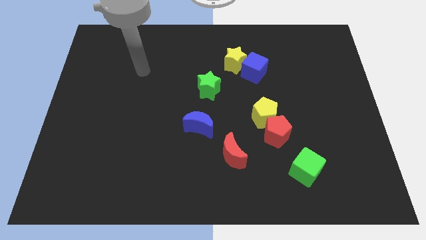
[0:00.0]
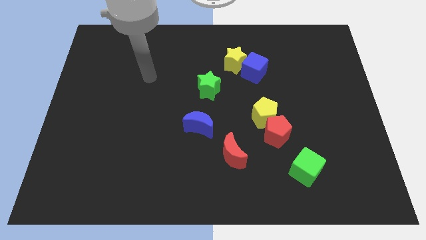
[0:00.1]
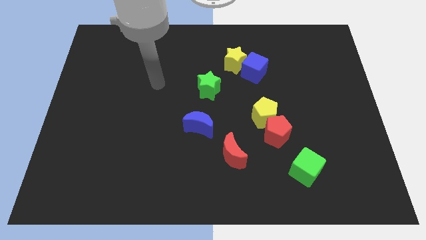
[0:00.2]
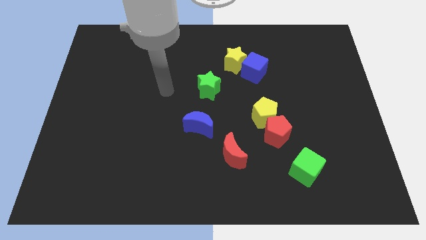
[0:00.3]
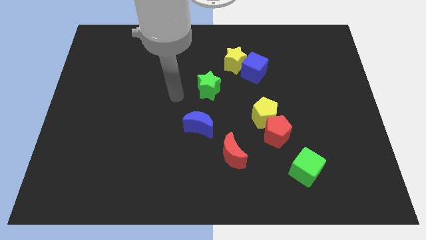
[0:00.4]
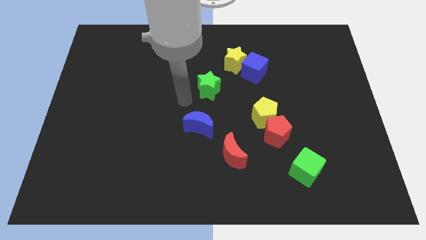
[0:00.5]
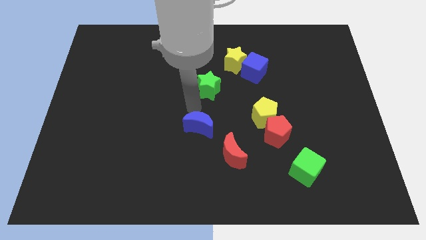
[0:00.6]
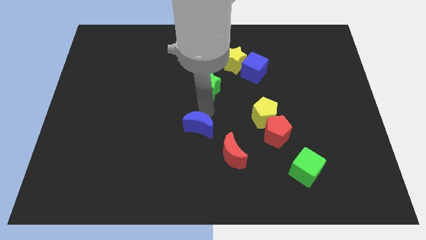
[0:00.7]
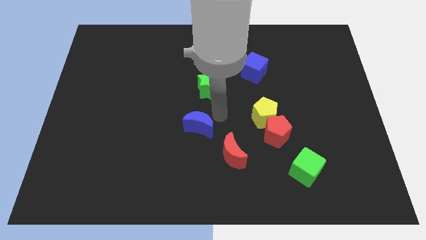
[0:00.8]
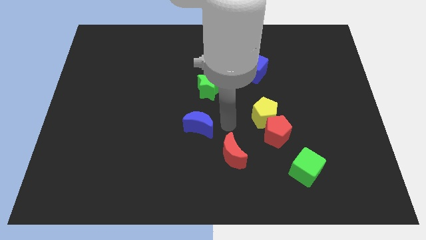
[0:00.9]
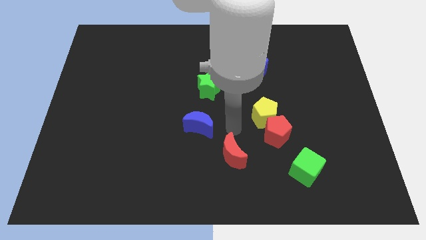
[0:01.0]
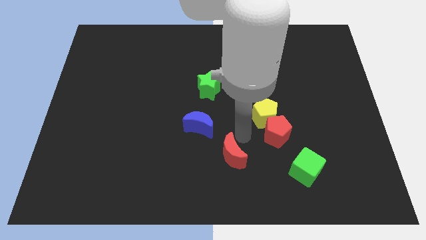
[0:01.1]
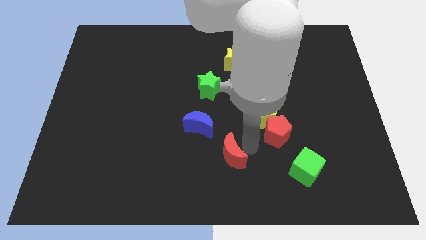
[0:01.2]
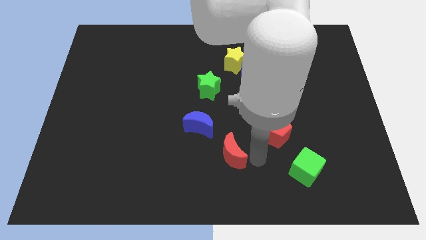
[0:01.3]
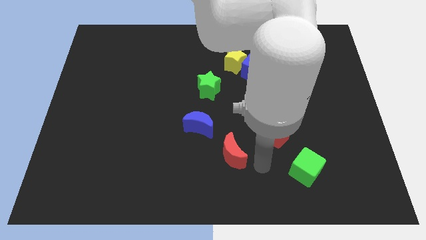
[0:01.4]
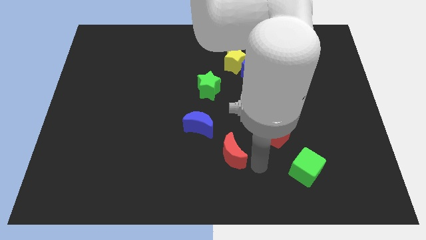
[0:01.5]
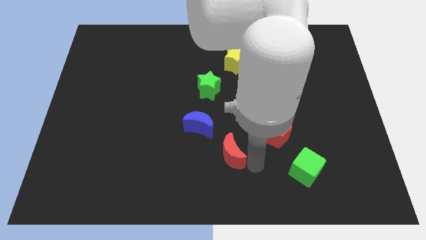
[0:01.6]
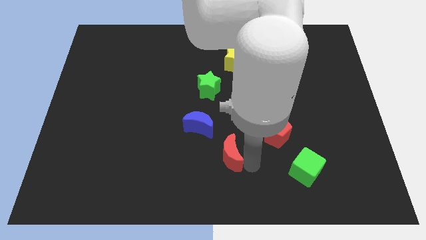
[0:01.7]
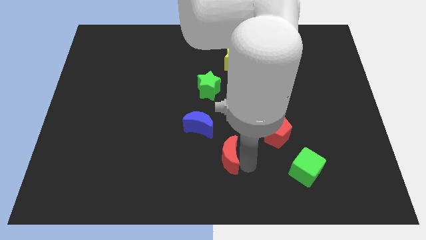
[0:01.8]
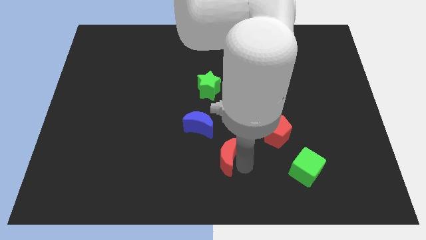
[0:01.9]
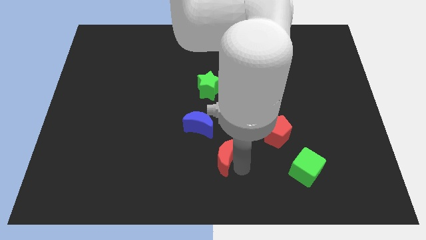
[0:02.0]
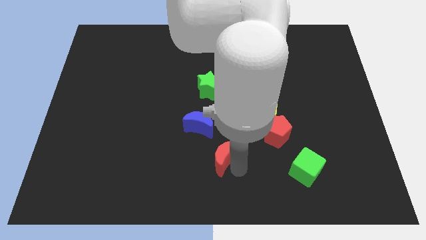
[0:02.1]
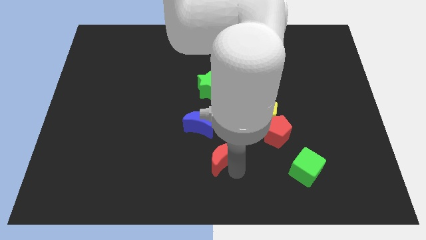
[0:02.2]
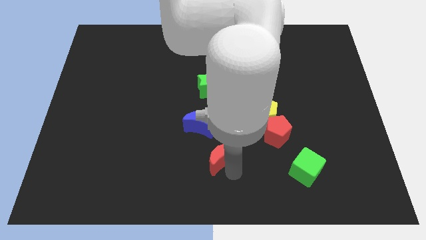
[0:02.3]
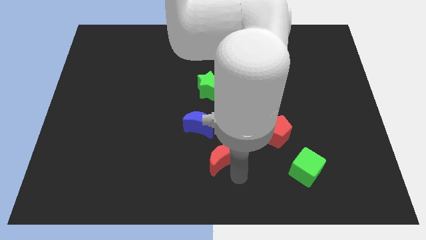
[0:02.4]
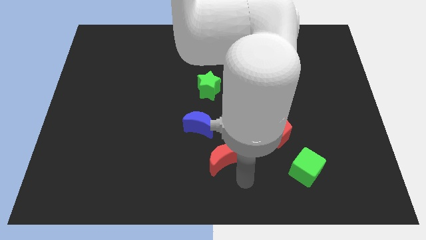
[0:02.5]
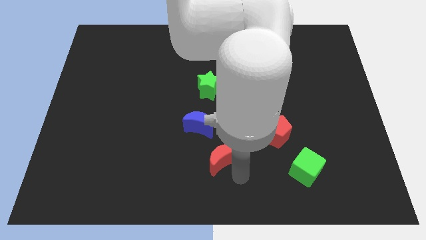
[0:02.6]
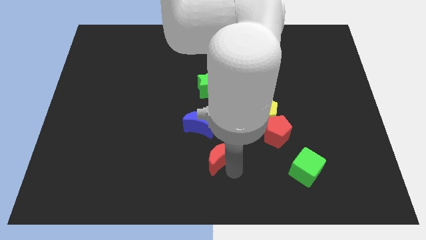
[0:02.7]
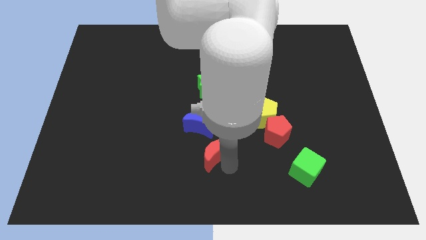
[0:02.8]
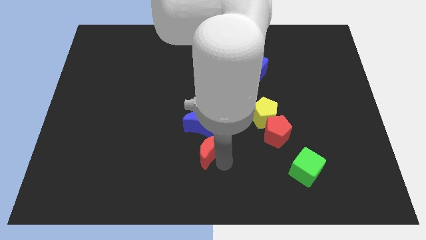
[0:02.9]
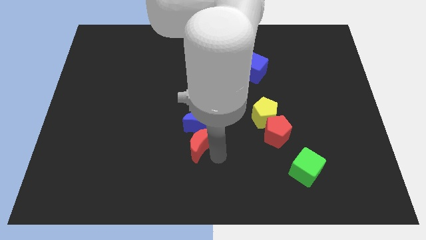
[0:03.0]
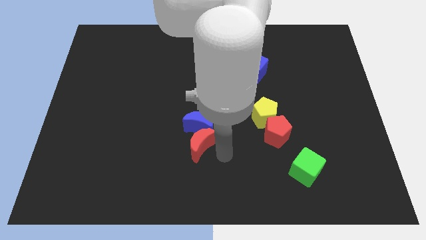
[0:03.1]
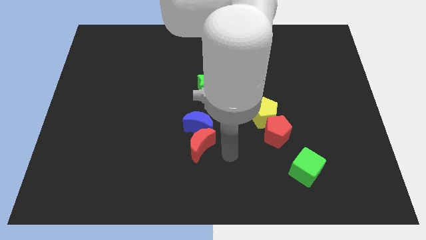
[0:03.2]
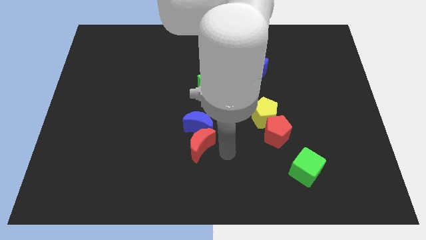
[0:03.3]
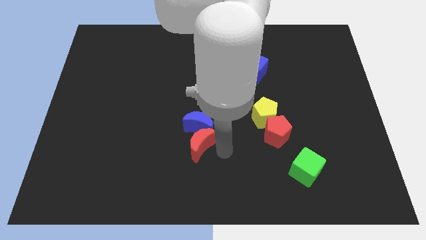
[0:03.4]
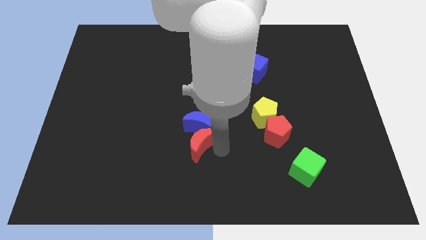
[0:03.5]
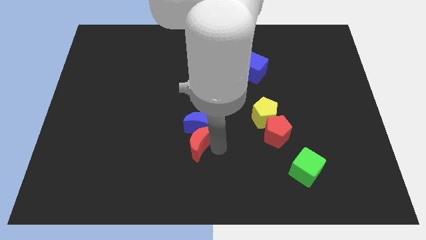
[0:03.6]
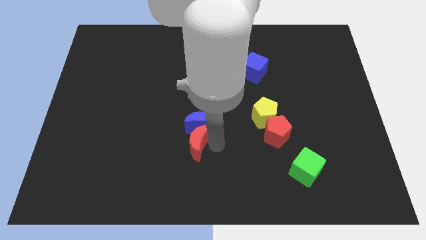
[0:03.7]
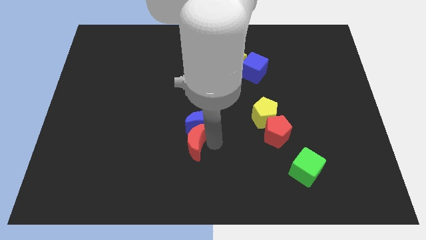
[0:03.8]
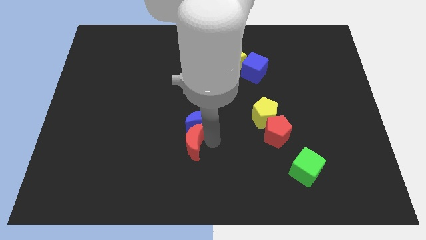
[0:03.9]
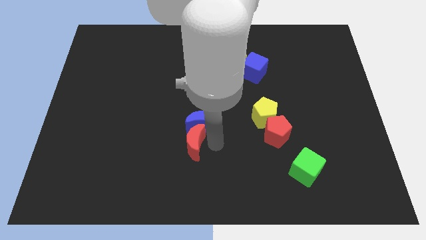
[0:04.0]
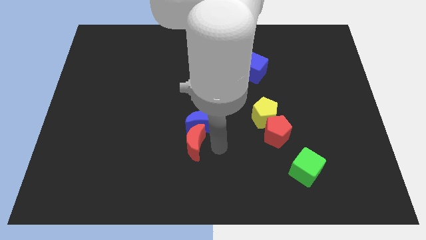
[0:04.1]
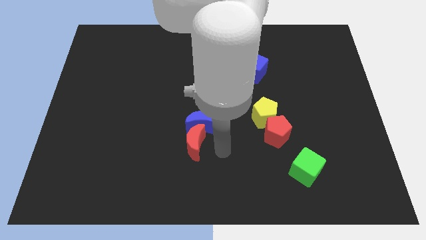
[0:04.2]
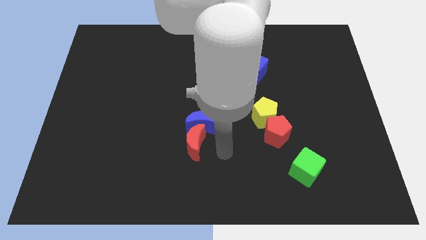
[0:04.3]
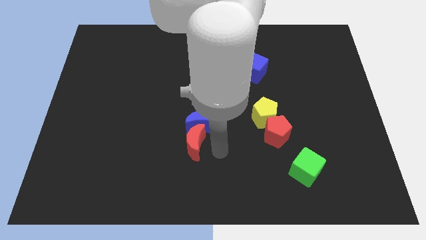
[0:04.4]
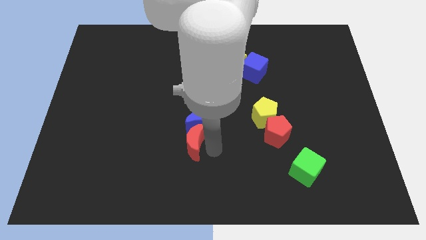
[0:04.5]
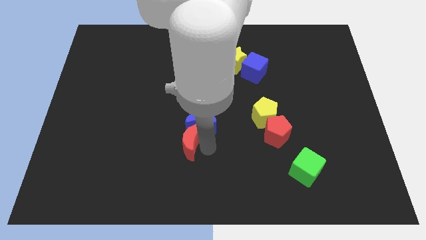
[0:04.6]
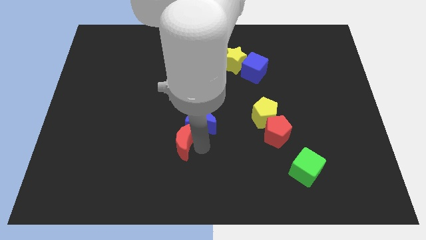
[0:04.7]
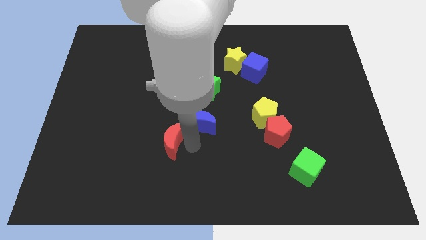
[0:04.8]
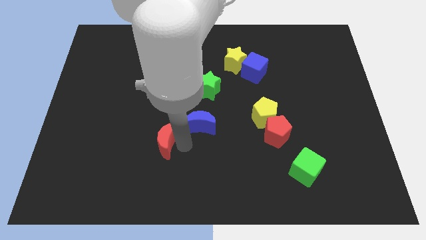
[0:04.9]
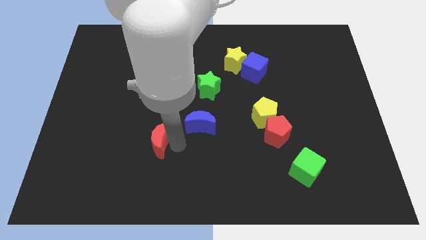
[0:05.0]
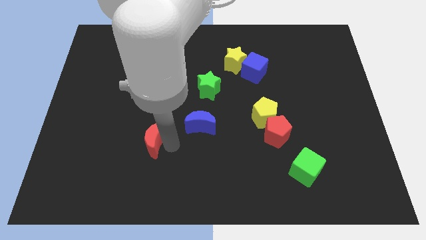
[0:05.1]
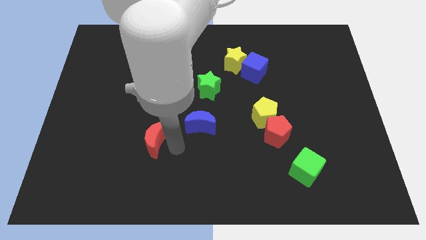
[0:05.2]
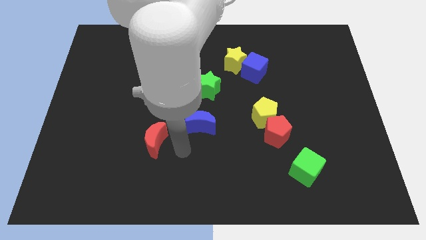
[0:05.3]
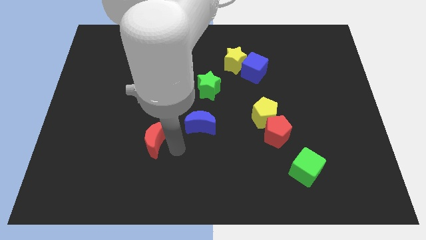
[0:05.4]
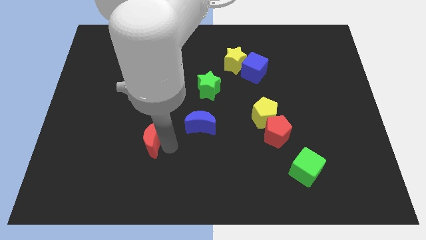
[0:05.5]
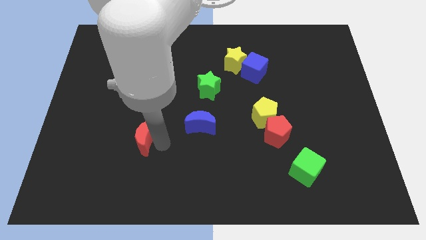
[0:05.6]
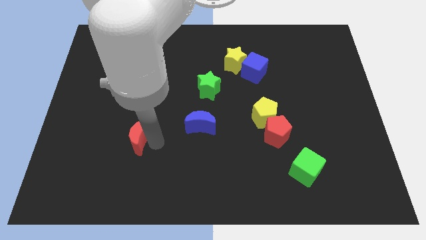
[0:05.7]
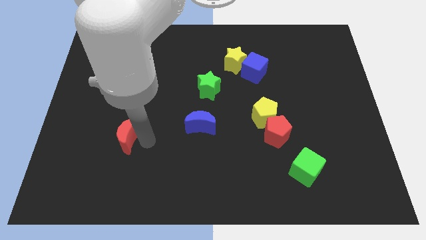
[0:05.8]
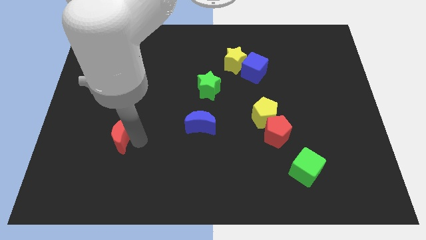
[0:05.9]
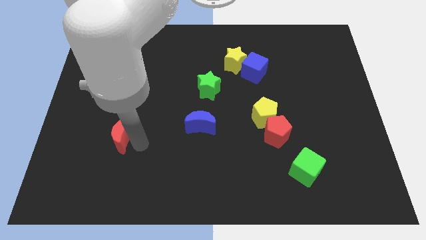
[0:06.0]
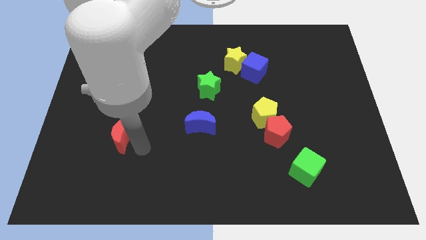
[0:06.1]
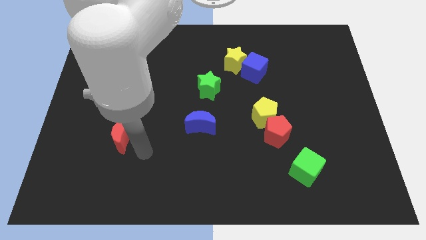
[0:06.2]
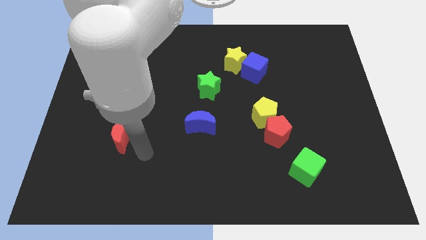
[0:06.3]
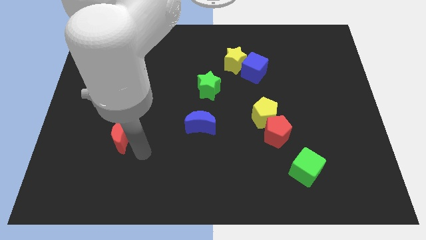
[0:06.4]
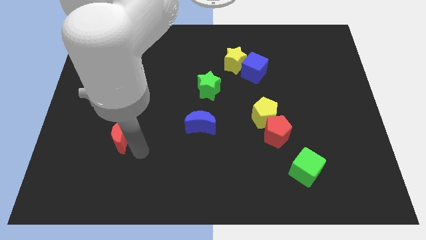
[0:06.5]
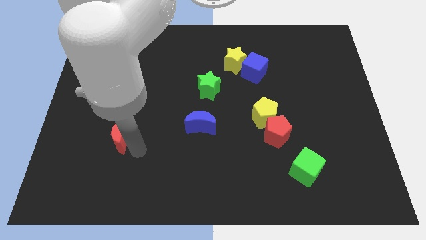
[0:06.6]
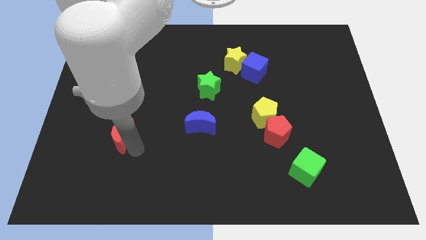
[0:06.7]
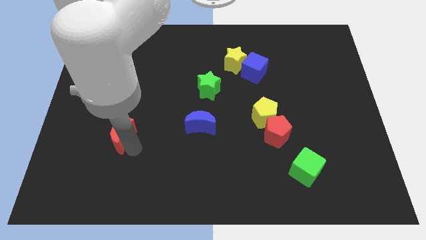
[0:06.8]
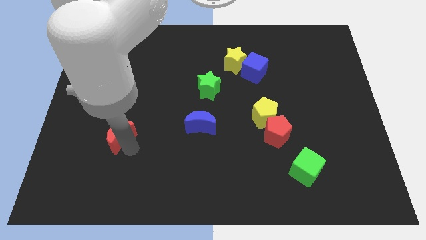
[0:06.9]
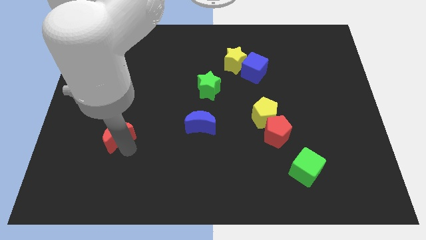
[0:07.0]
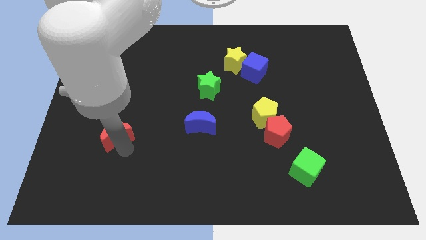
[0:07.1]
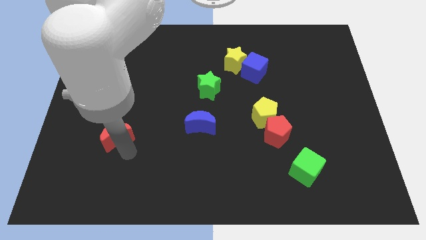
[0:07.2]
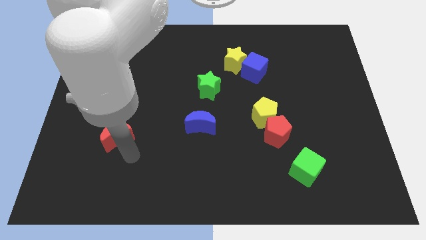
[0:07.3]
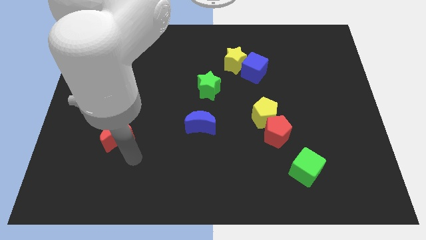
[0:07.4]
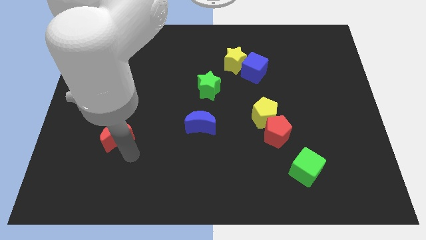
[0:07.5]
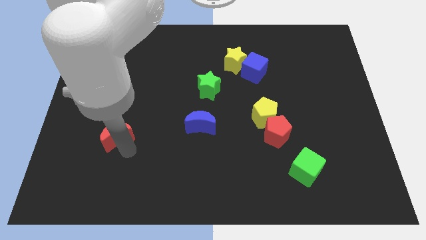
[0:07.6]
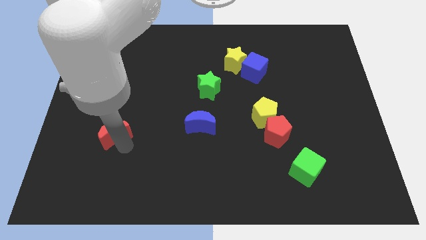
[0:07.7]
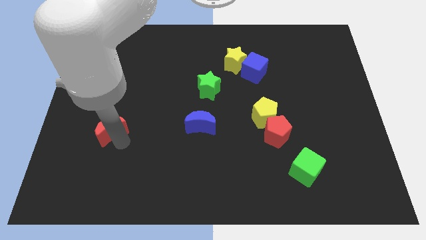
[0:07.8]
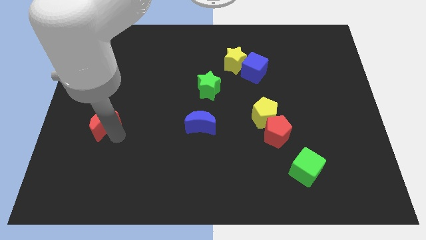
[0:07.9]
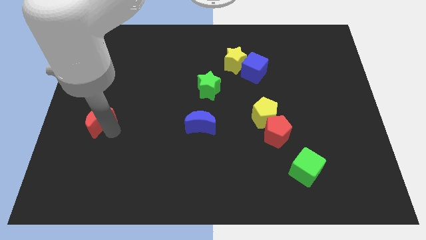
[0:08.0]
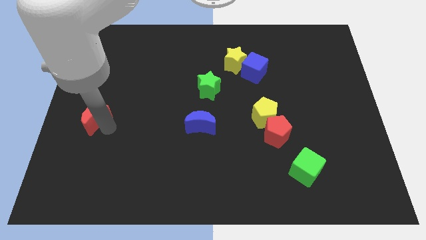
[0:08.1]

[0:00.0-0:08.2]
push the red moon to the left side of the board
